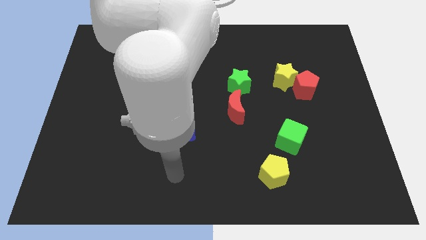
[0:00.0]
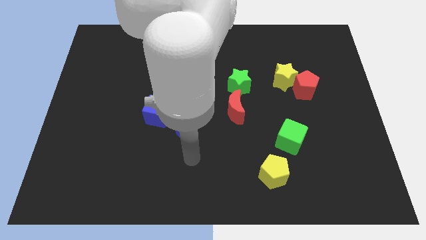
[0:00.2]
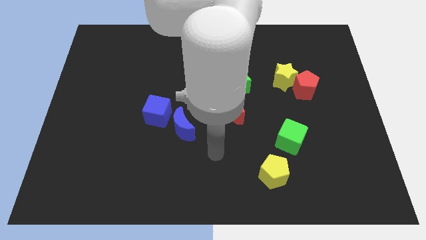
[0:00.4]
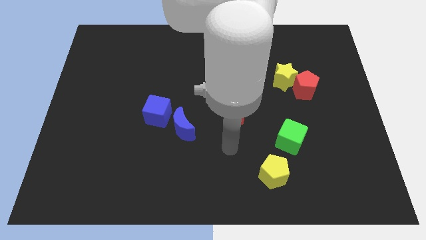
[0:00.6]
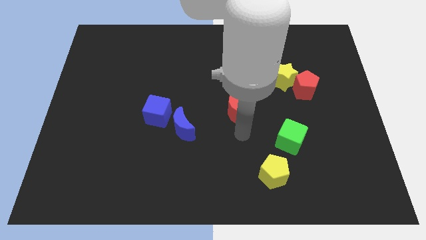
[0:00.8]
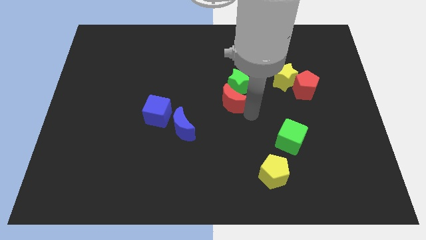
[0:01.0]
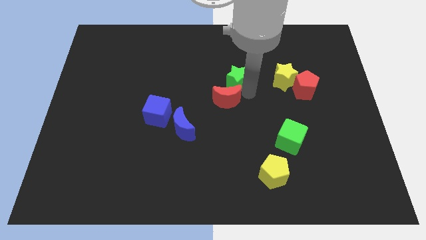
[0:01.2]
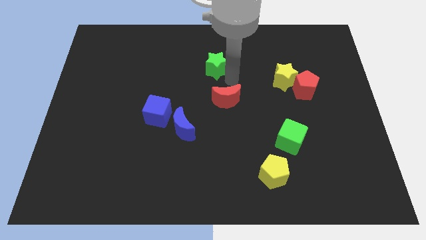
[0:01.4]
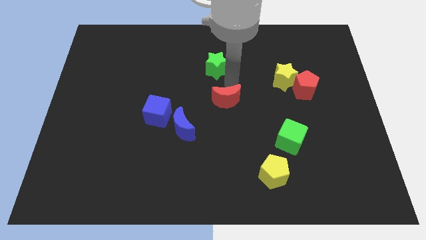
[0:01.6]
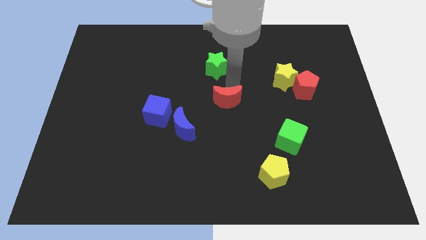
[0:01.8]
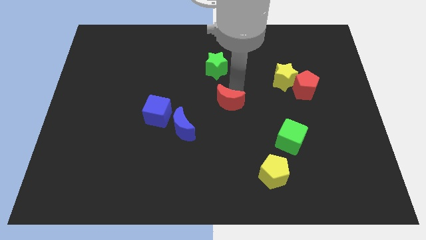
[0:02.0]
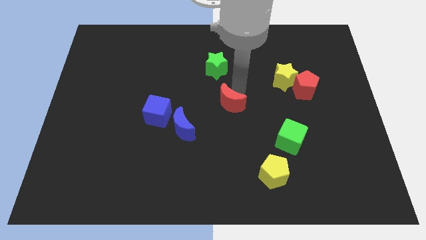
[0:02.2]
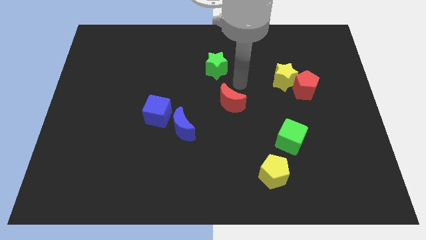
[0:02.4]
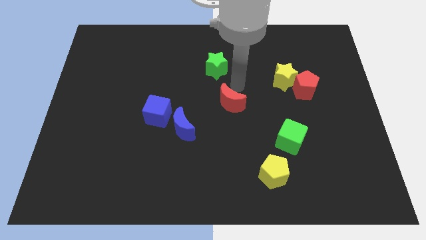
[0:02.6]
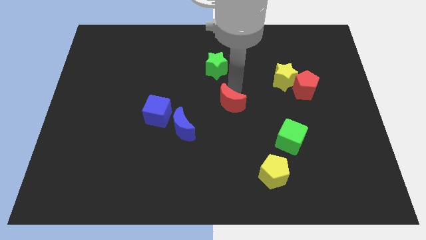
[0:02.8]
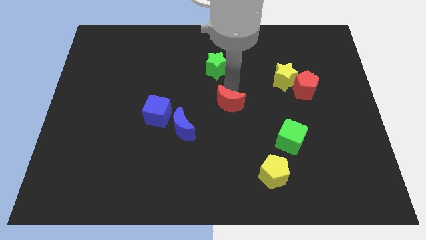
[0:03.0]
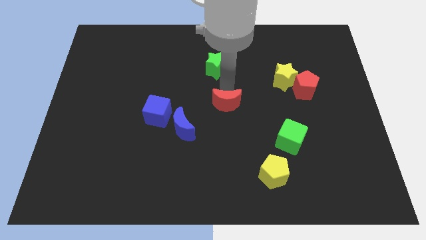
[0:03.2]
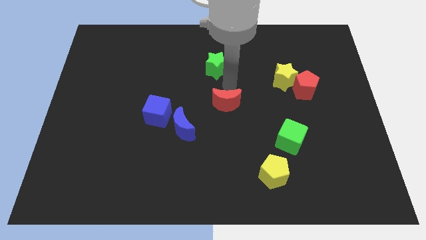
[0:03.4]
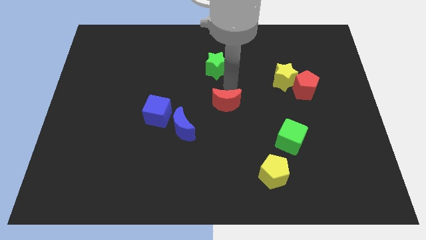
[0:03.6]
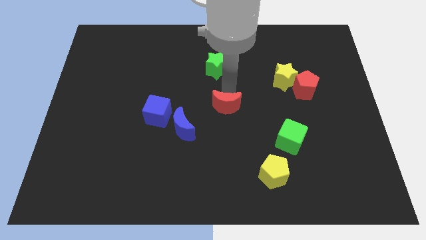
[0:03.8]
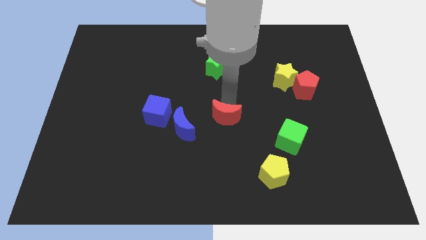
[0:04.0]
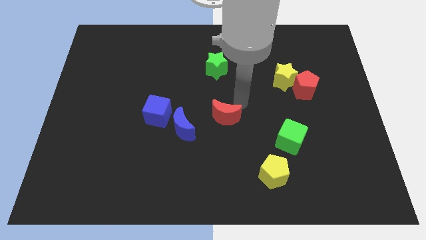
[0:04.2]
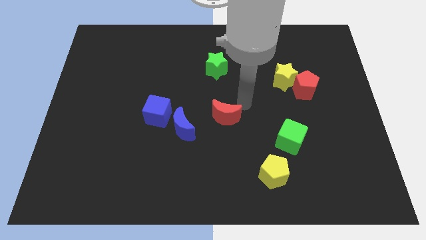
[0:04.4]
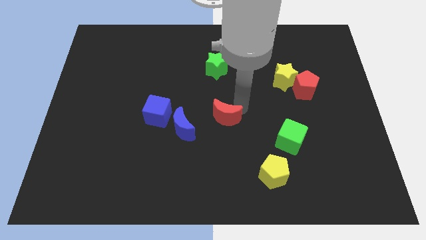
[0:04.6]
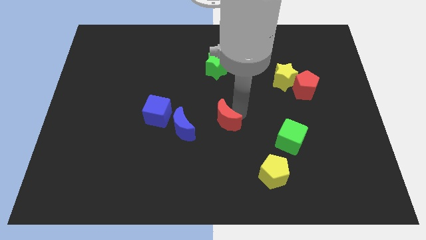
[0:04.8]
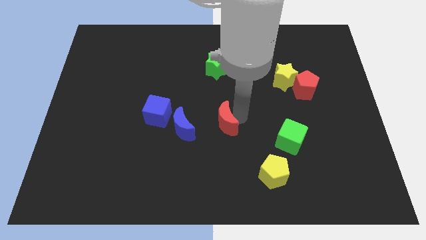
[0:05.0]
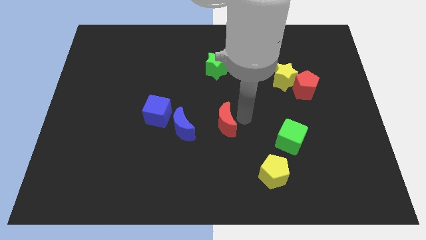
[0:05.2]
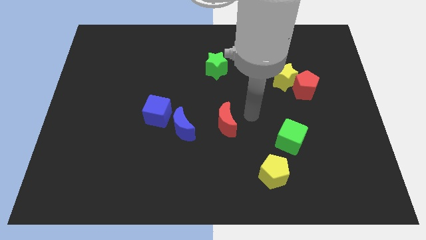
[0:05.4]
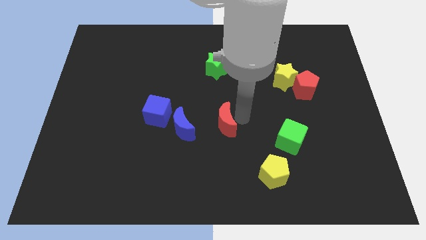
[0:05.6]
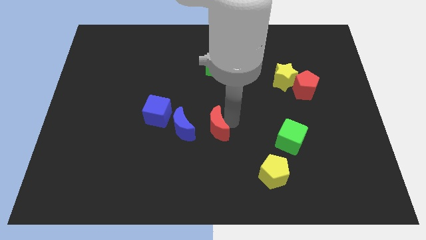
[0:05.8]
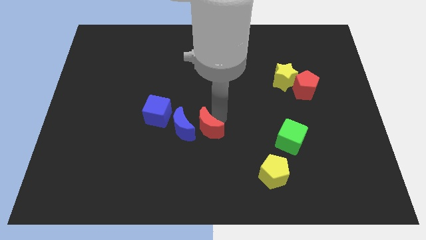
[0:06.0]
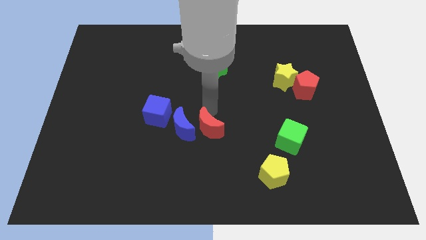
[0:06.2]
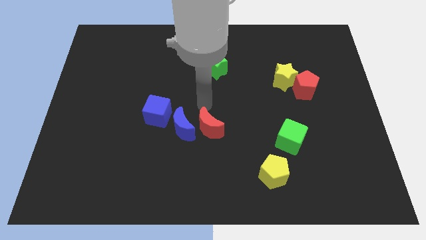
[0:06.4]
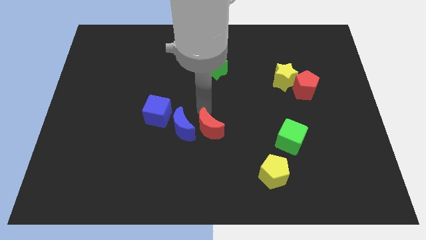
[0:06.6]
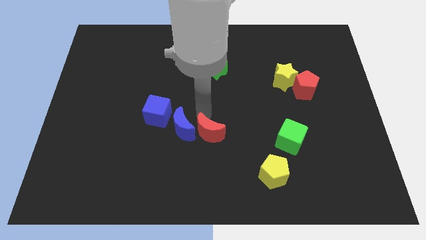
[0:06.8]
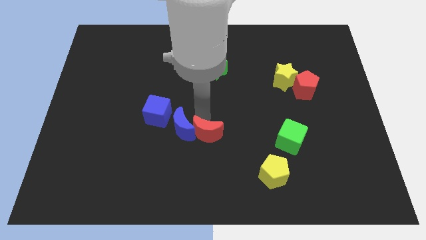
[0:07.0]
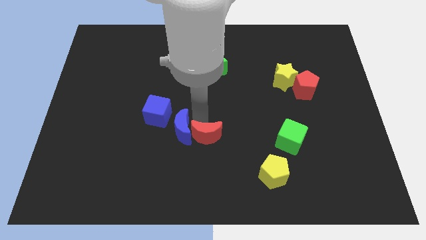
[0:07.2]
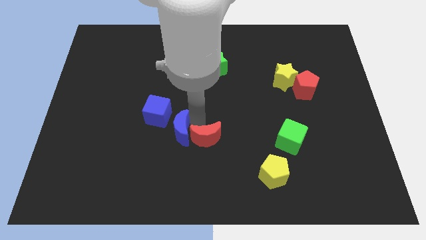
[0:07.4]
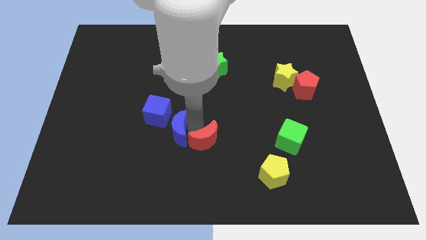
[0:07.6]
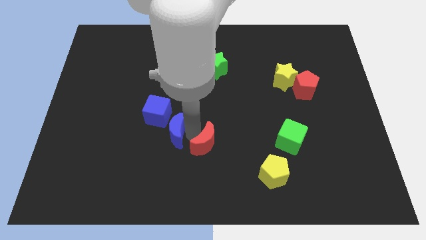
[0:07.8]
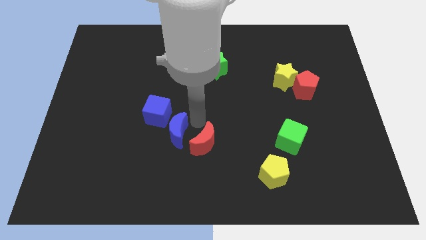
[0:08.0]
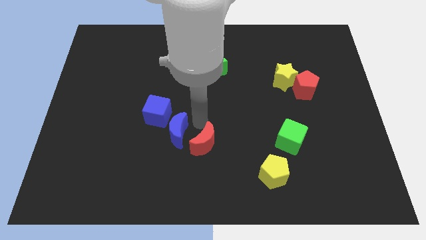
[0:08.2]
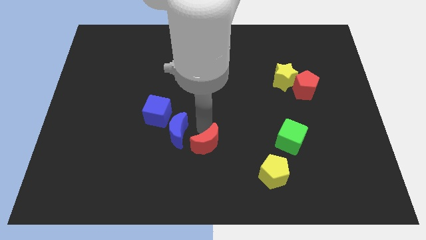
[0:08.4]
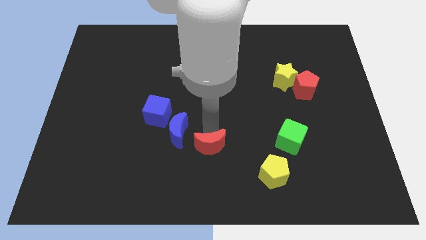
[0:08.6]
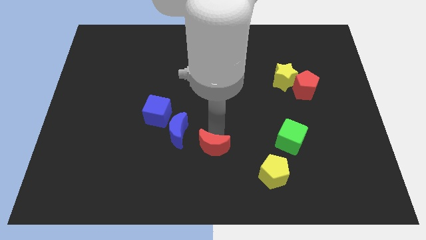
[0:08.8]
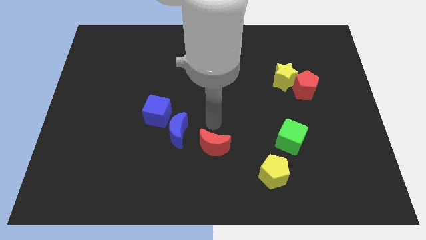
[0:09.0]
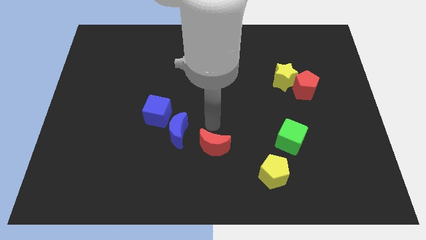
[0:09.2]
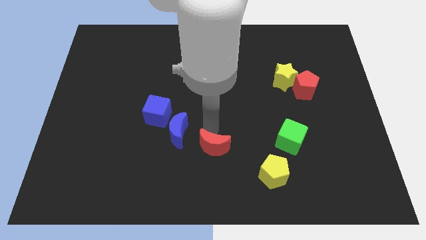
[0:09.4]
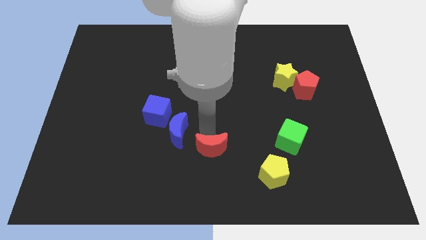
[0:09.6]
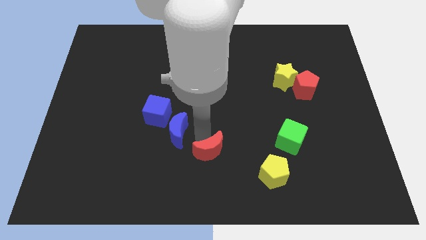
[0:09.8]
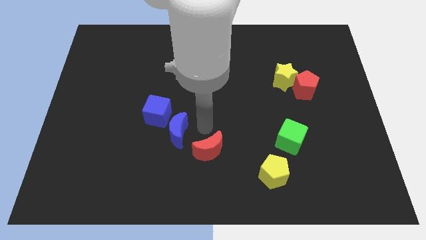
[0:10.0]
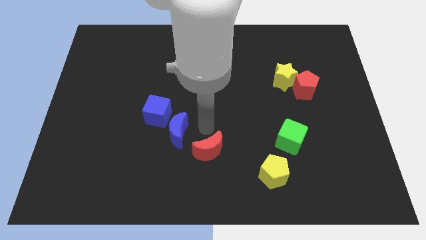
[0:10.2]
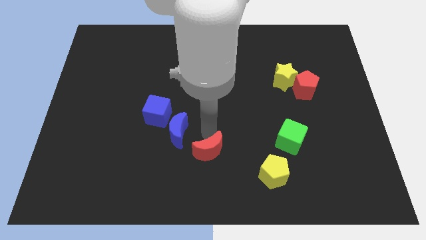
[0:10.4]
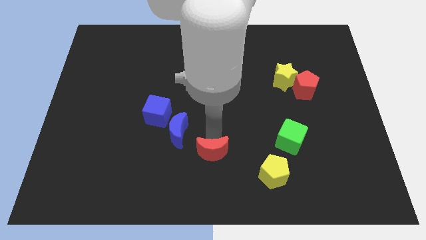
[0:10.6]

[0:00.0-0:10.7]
push the red moon to the bottom
